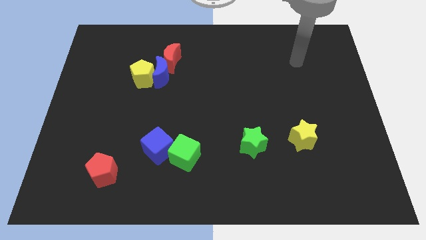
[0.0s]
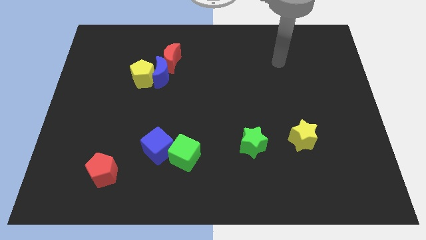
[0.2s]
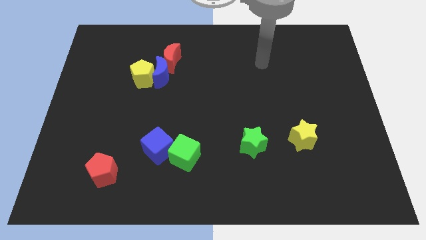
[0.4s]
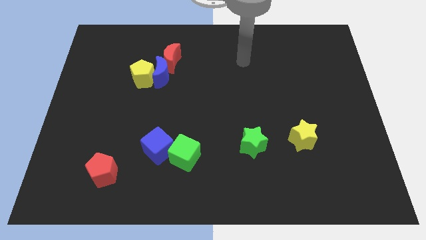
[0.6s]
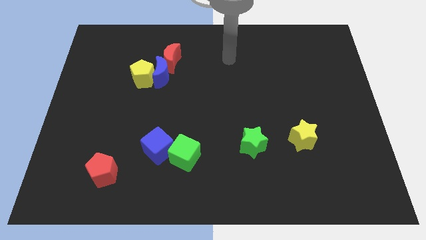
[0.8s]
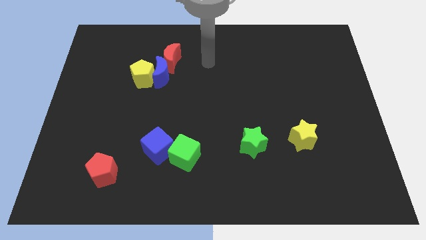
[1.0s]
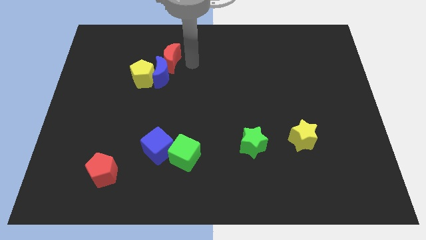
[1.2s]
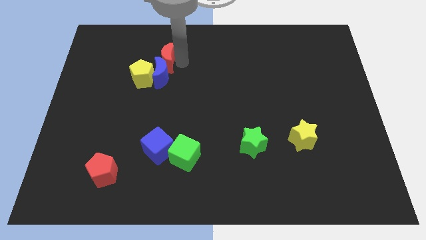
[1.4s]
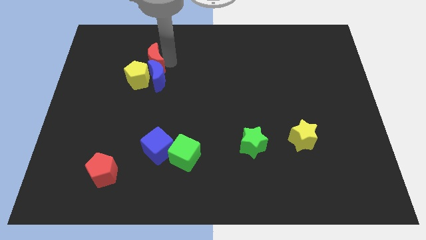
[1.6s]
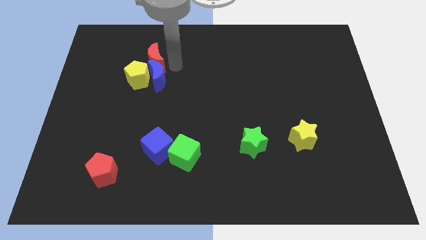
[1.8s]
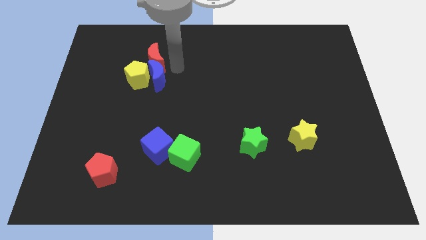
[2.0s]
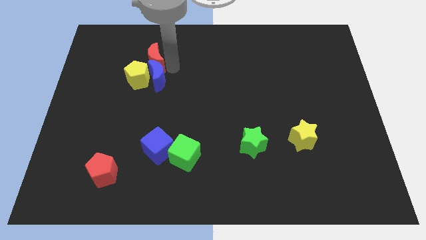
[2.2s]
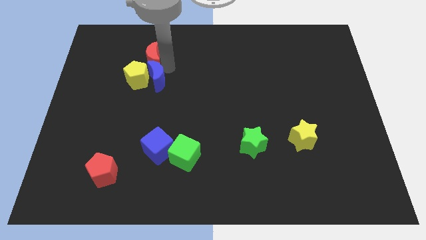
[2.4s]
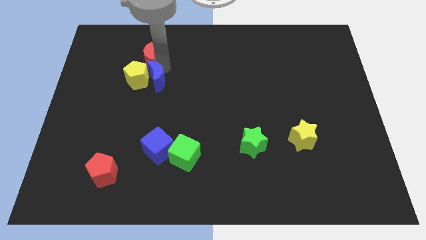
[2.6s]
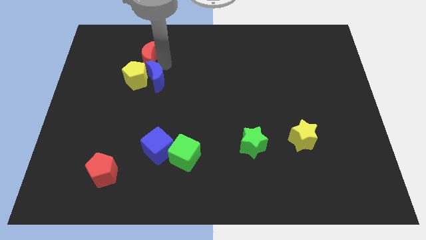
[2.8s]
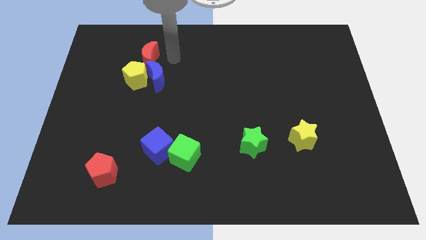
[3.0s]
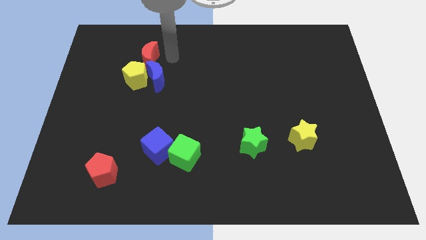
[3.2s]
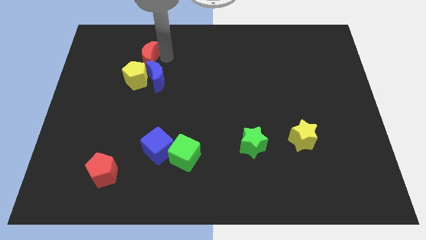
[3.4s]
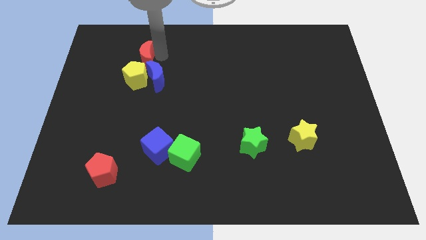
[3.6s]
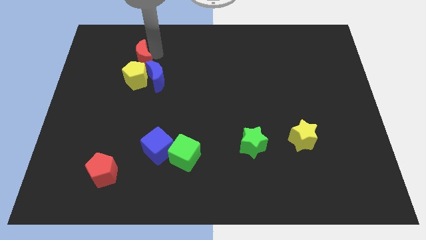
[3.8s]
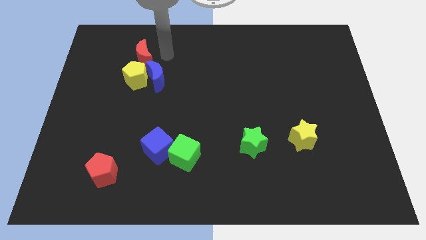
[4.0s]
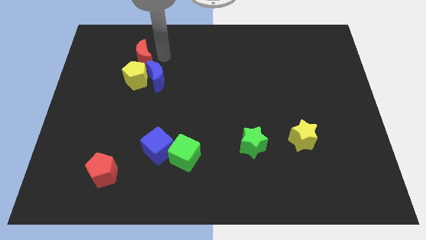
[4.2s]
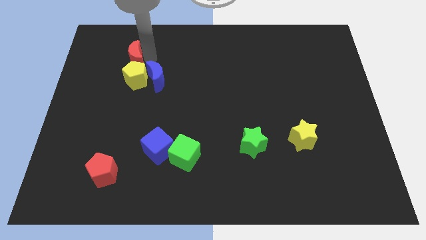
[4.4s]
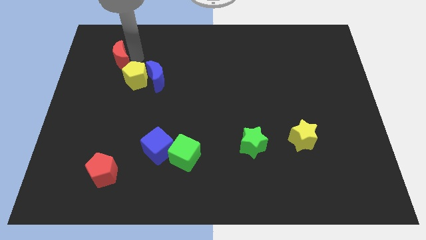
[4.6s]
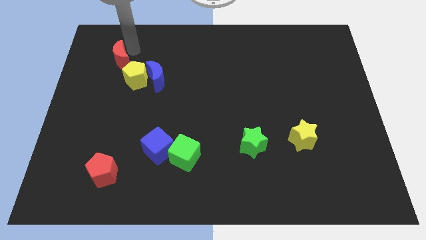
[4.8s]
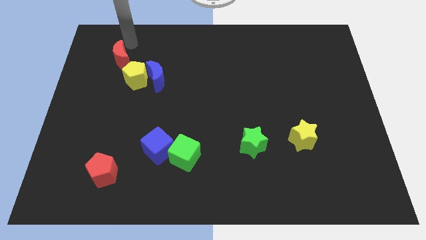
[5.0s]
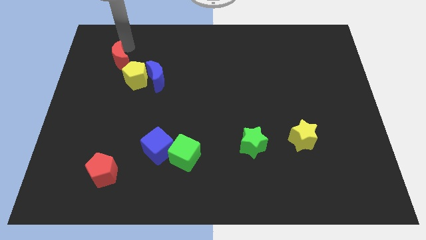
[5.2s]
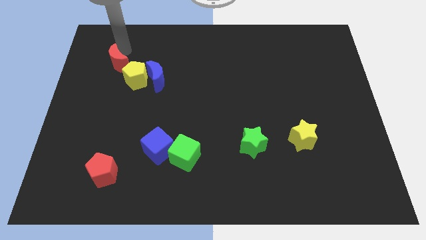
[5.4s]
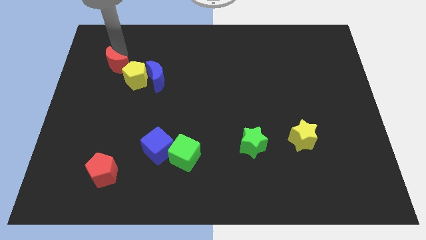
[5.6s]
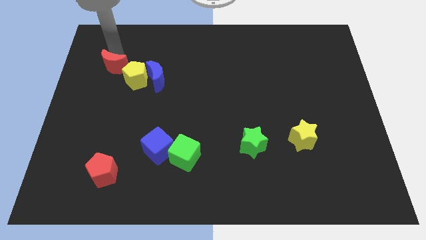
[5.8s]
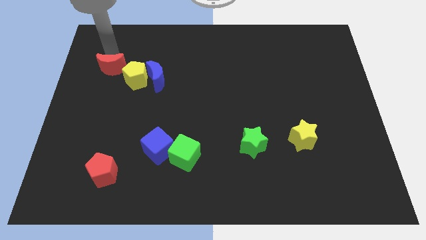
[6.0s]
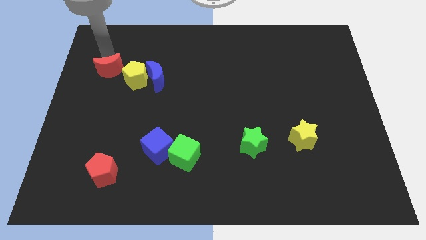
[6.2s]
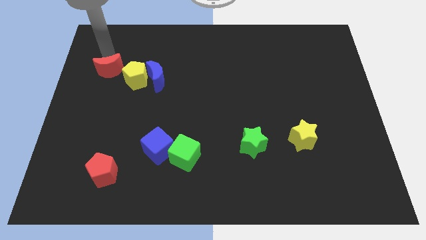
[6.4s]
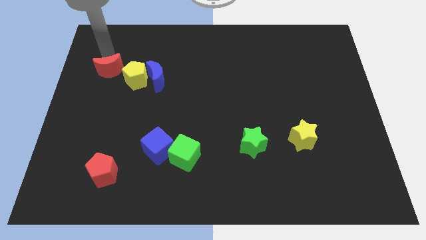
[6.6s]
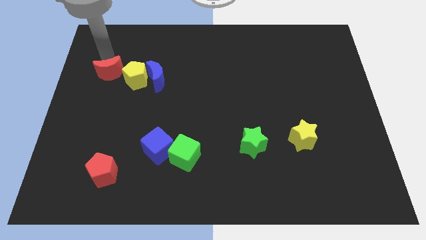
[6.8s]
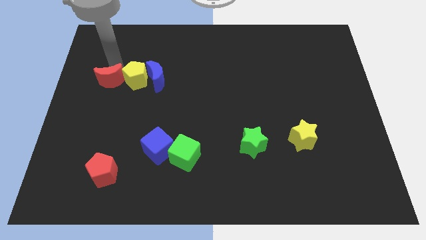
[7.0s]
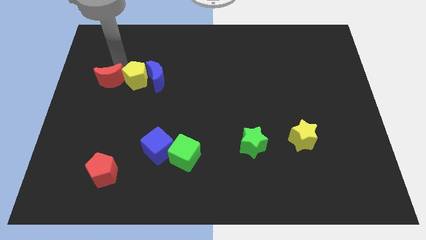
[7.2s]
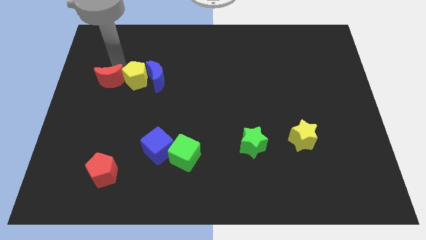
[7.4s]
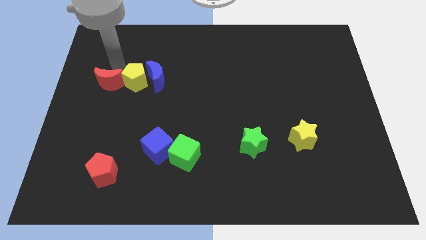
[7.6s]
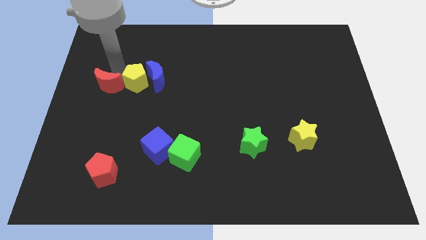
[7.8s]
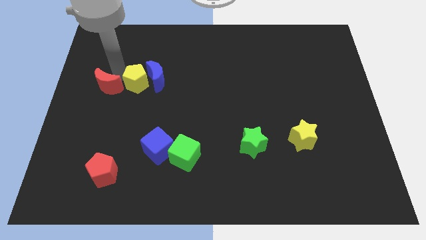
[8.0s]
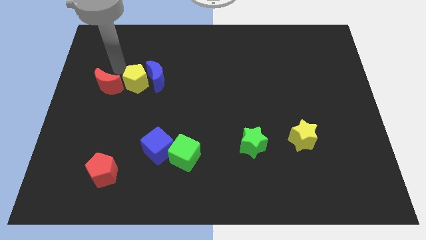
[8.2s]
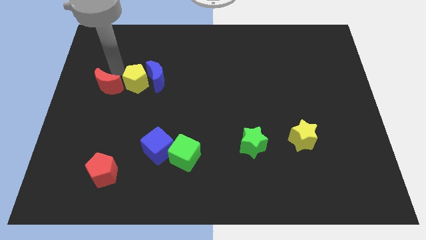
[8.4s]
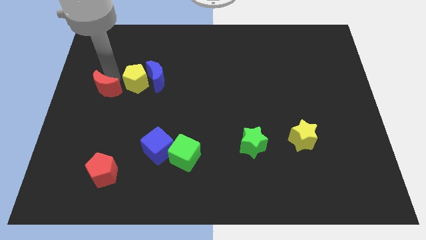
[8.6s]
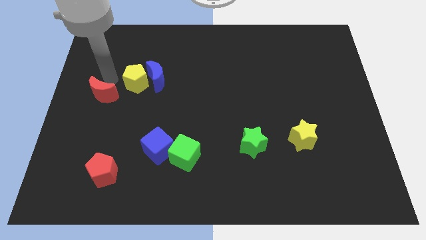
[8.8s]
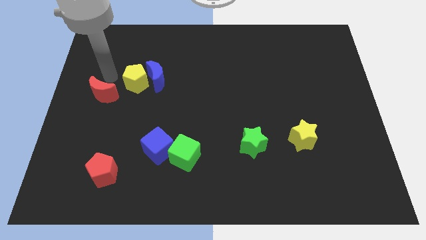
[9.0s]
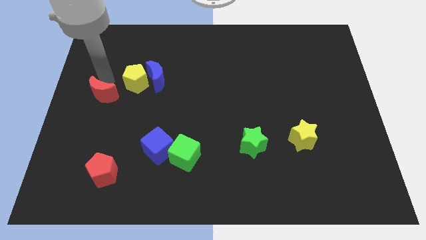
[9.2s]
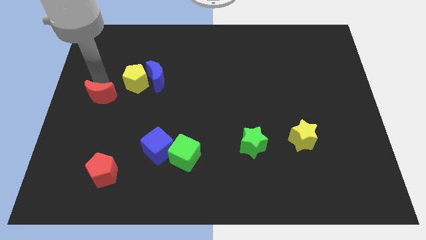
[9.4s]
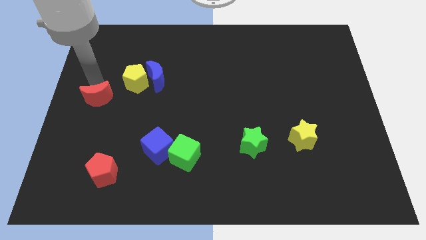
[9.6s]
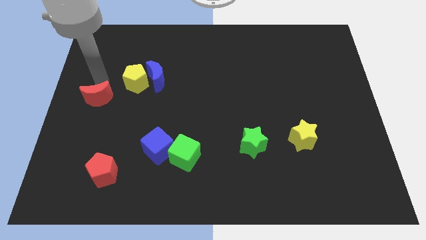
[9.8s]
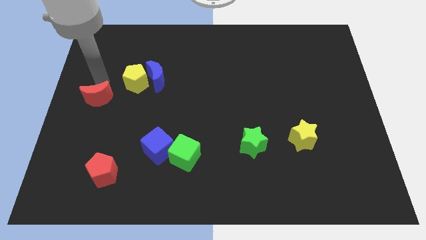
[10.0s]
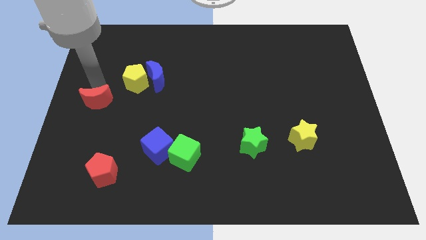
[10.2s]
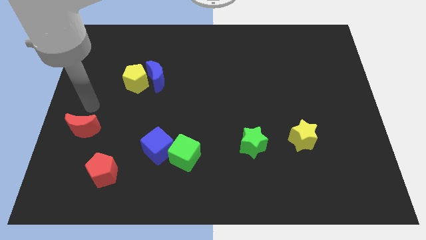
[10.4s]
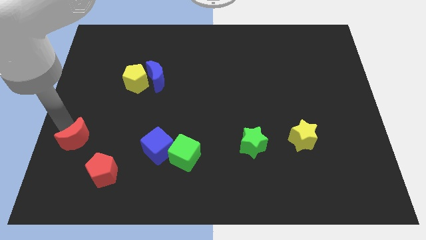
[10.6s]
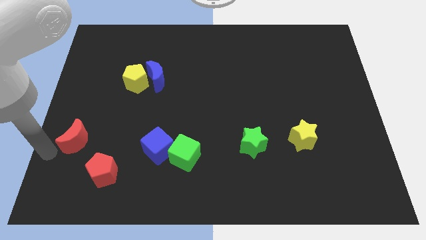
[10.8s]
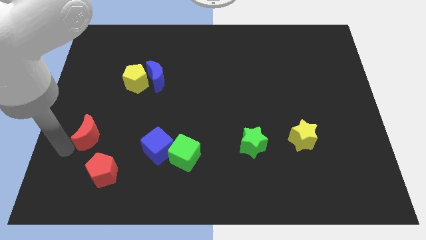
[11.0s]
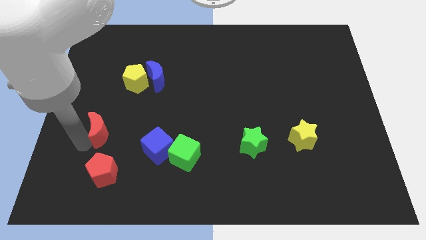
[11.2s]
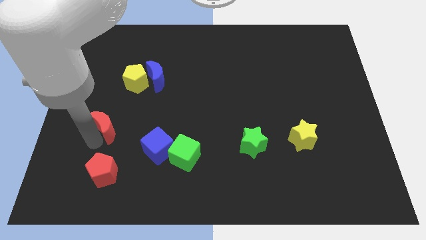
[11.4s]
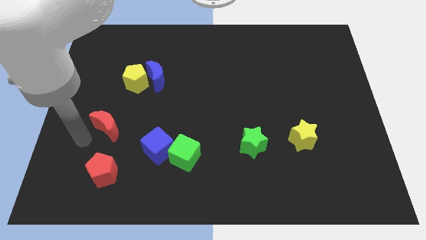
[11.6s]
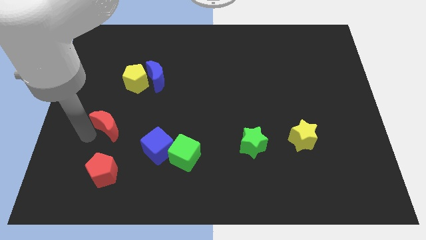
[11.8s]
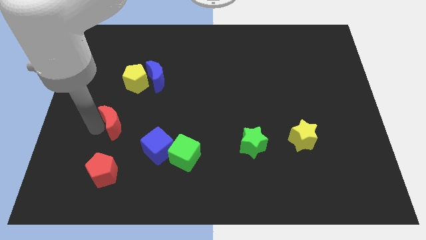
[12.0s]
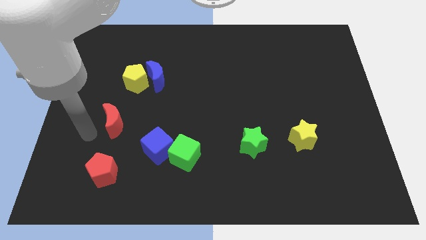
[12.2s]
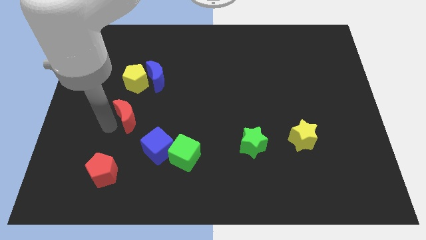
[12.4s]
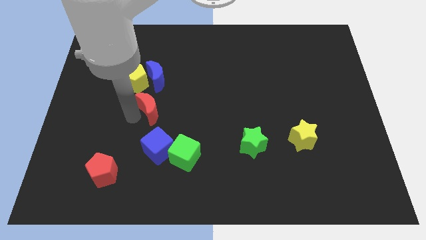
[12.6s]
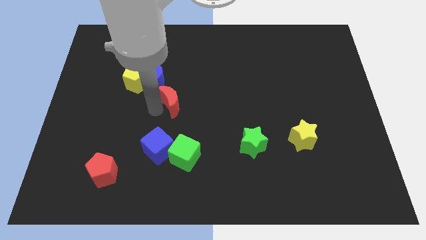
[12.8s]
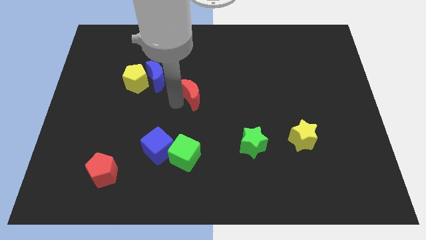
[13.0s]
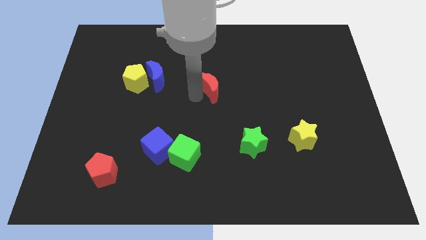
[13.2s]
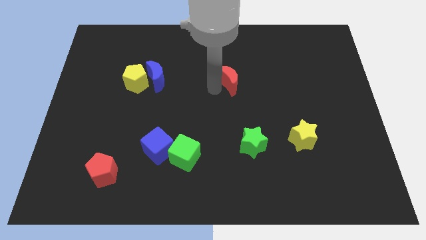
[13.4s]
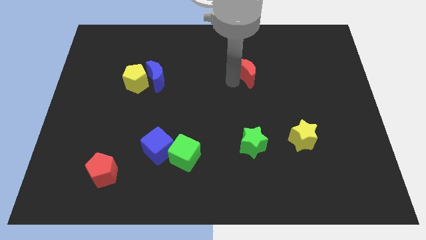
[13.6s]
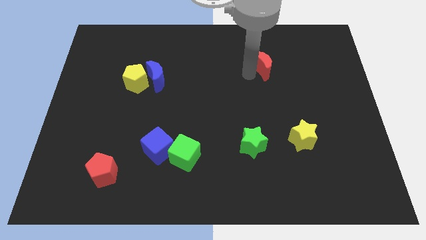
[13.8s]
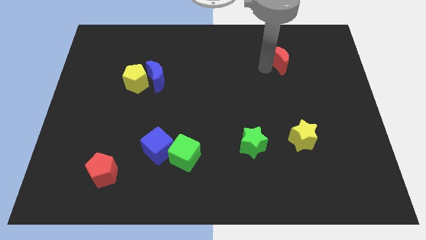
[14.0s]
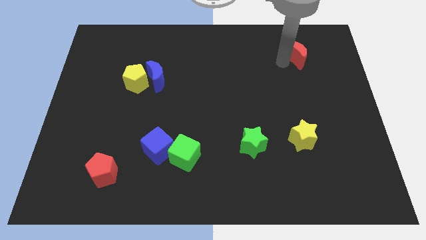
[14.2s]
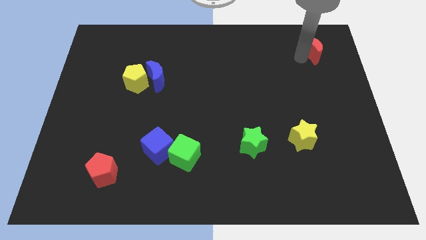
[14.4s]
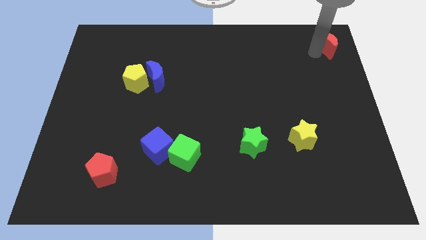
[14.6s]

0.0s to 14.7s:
slide the red moon to the top right corner
